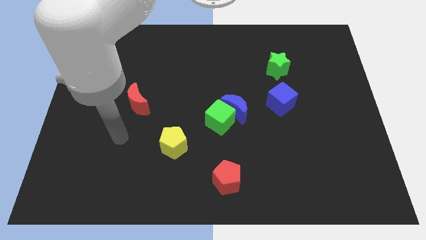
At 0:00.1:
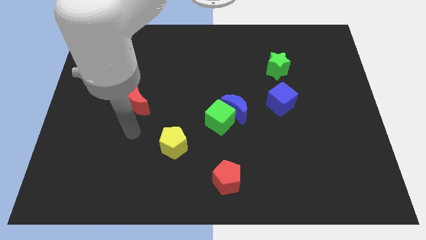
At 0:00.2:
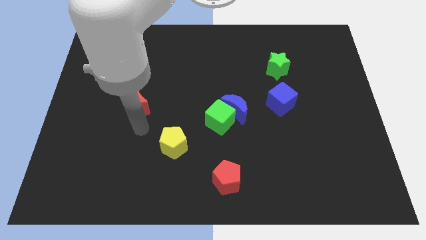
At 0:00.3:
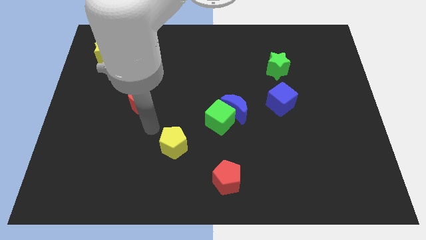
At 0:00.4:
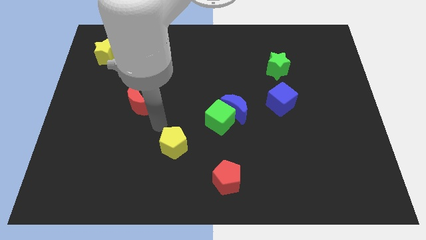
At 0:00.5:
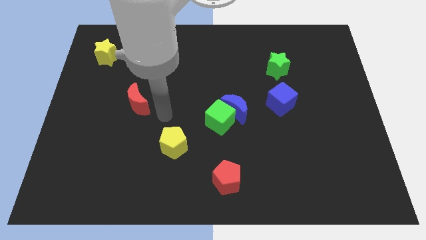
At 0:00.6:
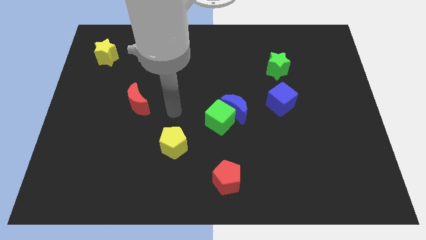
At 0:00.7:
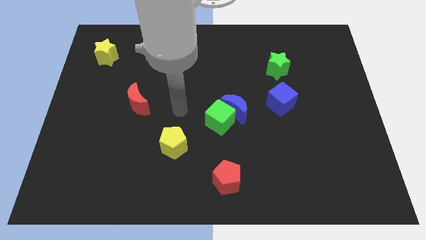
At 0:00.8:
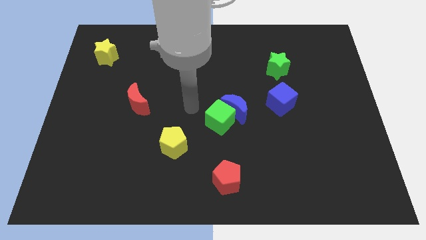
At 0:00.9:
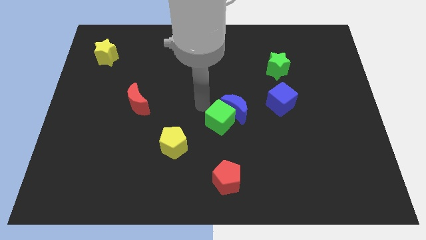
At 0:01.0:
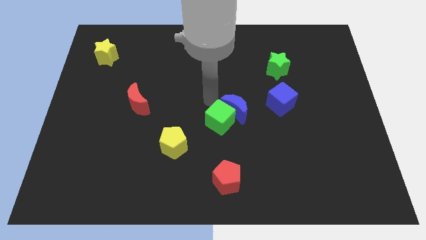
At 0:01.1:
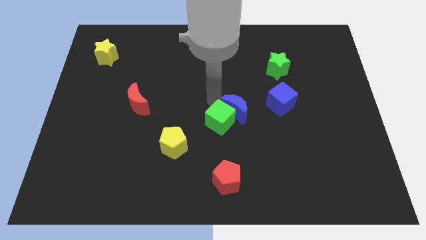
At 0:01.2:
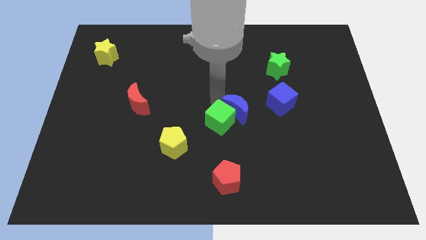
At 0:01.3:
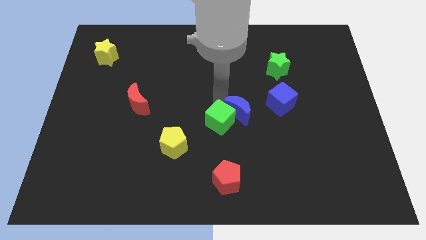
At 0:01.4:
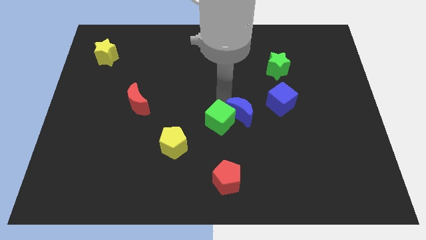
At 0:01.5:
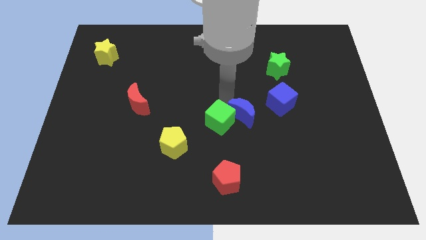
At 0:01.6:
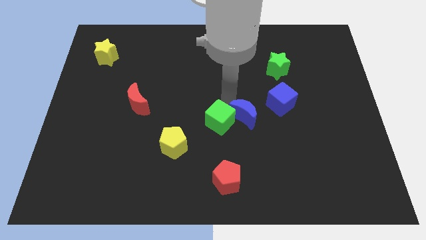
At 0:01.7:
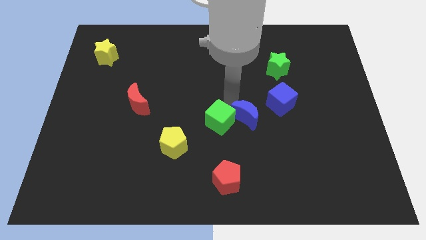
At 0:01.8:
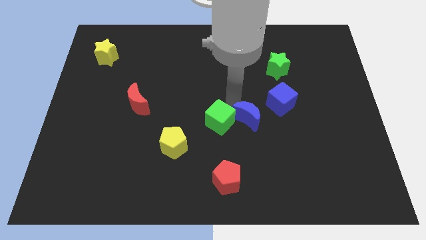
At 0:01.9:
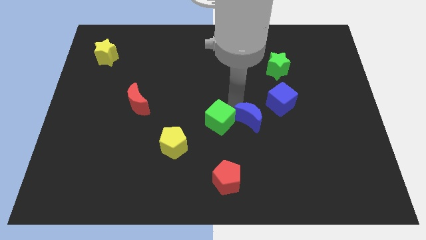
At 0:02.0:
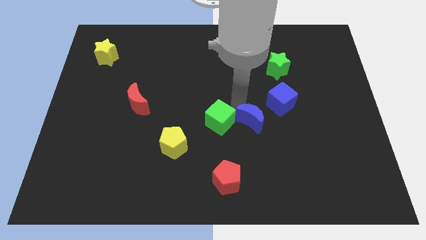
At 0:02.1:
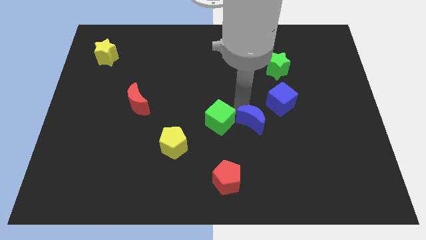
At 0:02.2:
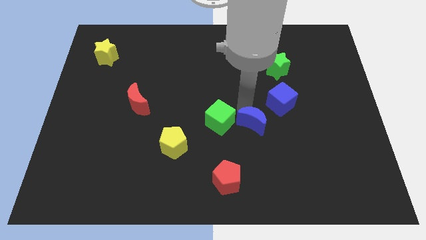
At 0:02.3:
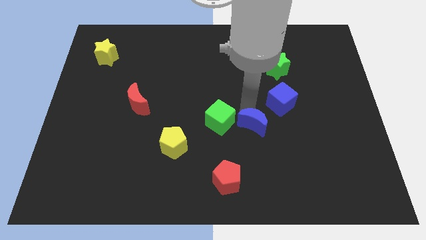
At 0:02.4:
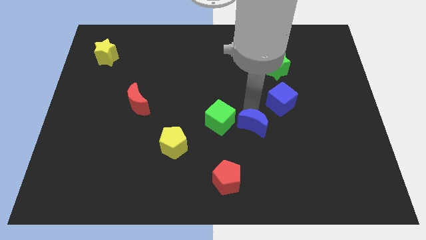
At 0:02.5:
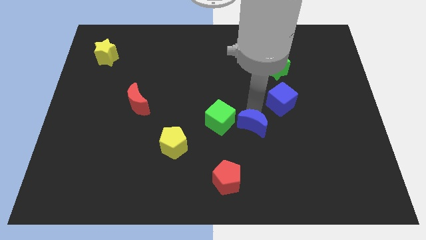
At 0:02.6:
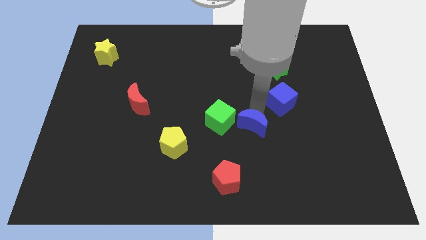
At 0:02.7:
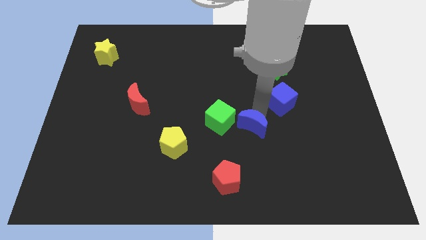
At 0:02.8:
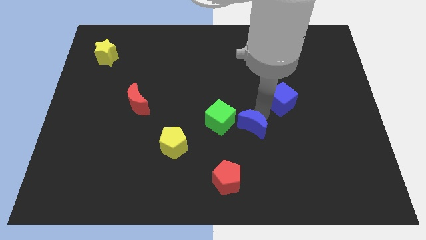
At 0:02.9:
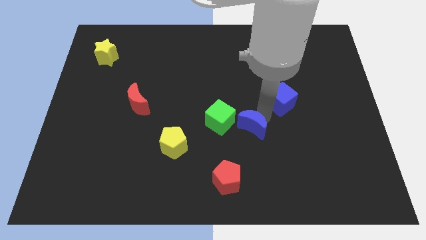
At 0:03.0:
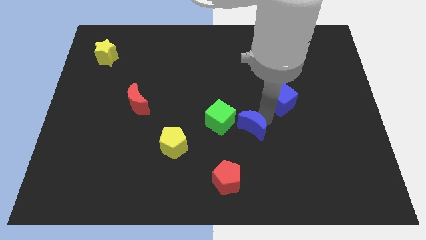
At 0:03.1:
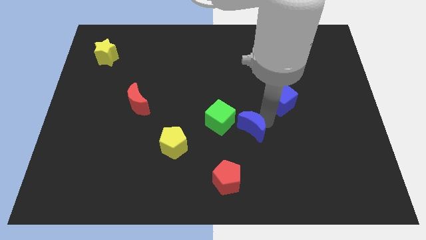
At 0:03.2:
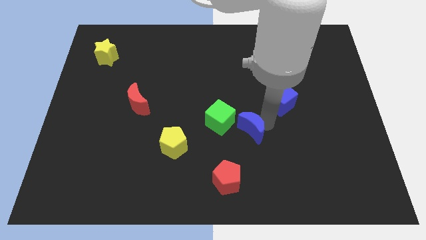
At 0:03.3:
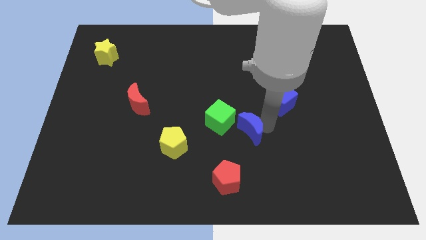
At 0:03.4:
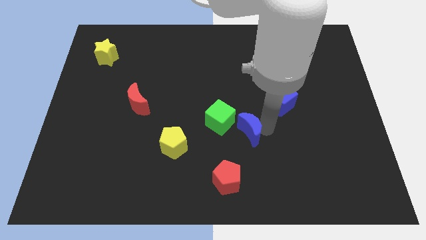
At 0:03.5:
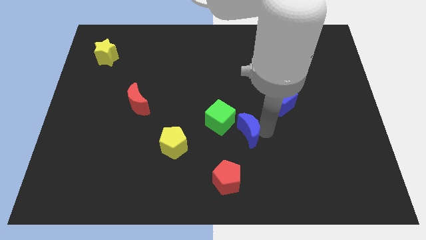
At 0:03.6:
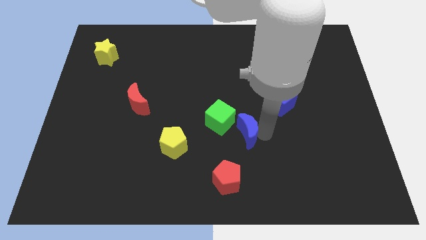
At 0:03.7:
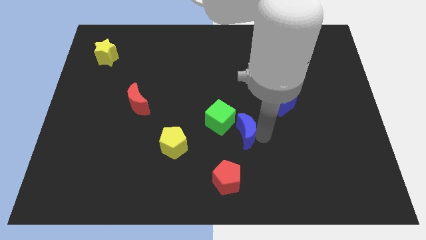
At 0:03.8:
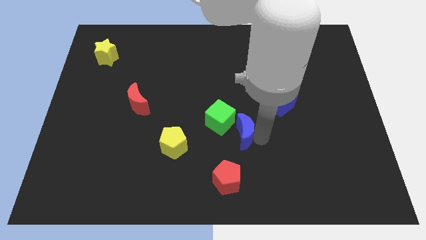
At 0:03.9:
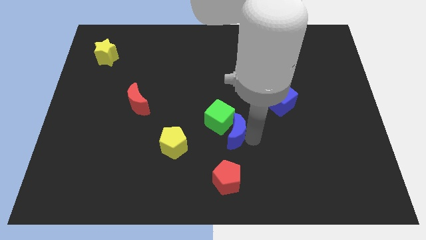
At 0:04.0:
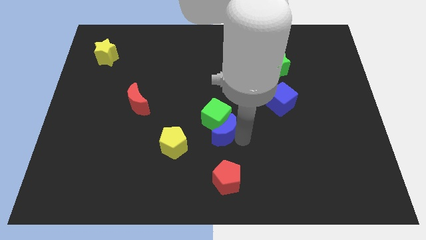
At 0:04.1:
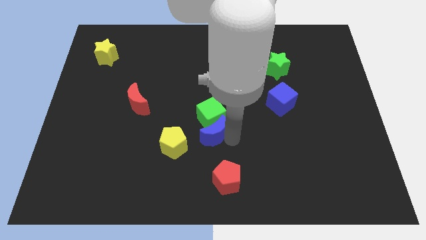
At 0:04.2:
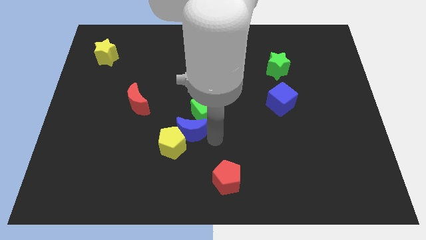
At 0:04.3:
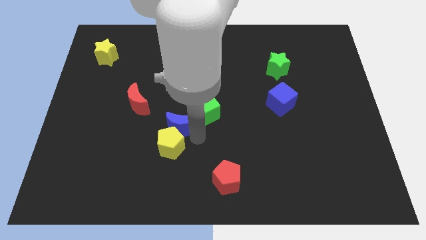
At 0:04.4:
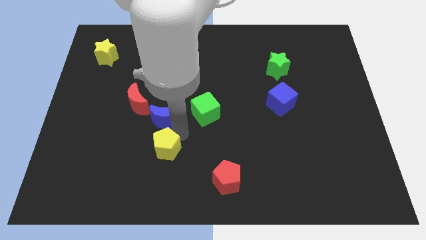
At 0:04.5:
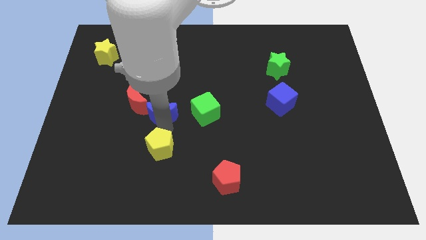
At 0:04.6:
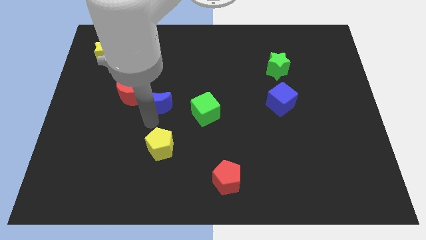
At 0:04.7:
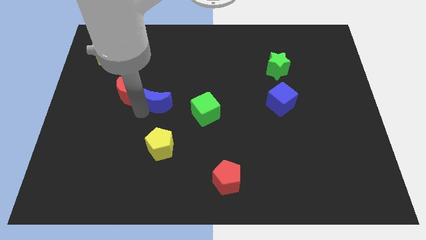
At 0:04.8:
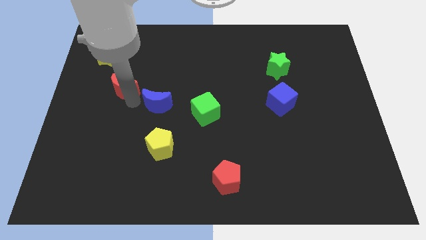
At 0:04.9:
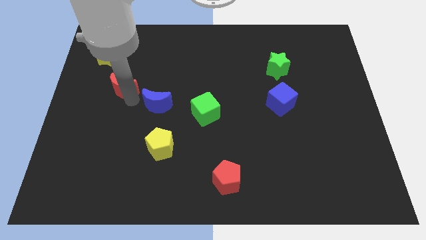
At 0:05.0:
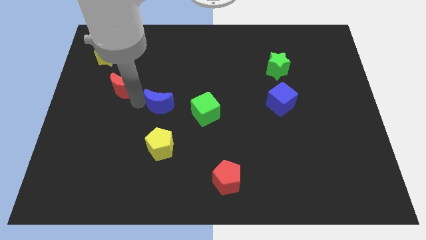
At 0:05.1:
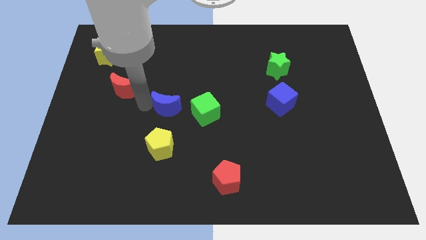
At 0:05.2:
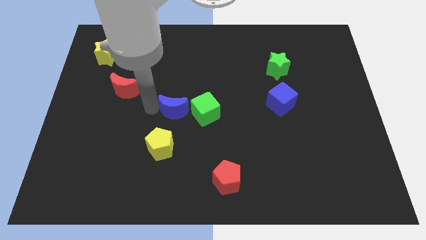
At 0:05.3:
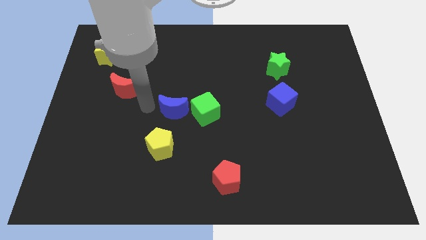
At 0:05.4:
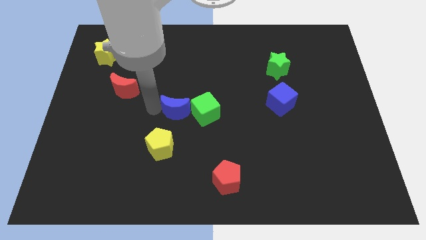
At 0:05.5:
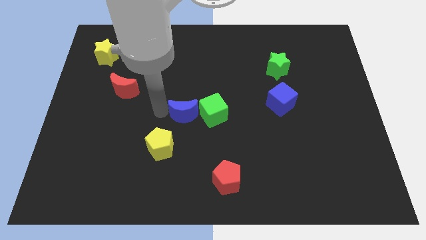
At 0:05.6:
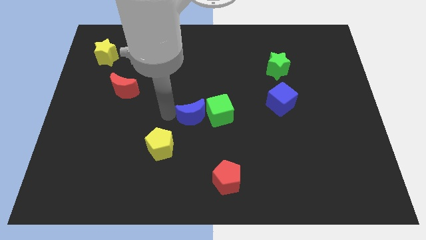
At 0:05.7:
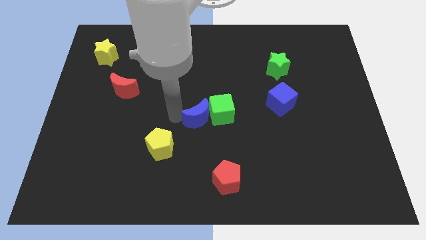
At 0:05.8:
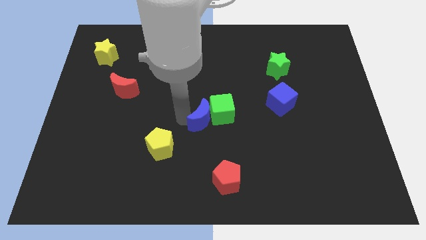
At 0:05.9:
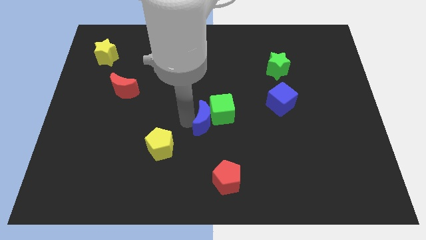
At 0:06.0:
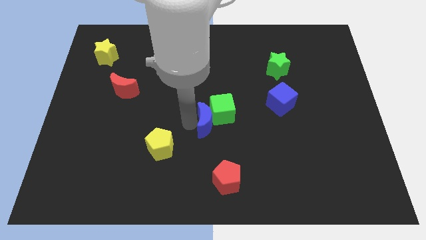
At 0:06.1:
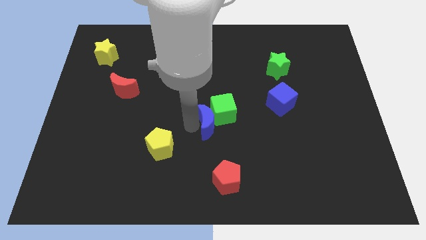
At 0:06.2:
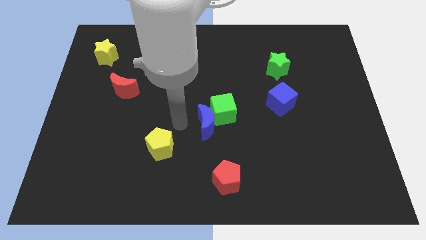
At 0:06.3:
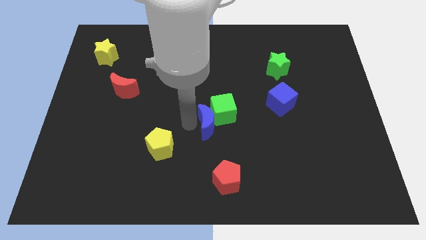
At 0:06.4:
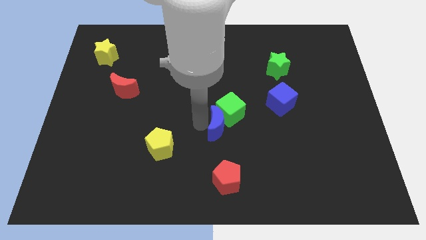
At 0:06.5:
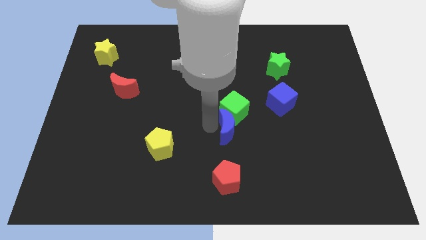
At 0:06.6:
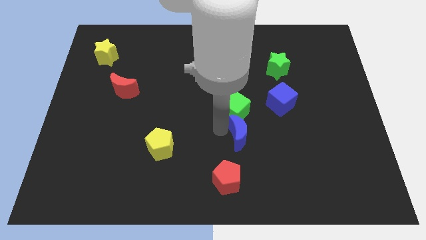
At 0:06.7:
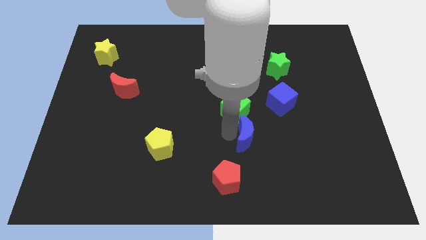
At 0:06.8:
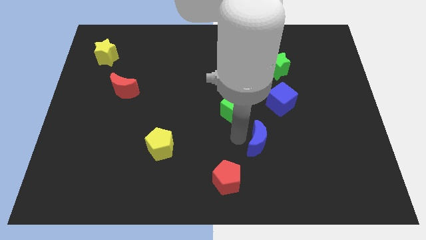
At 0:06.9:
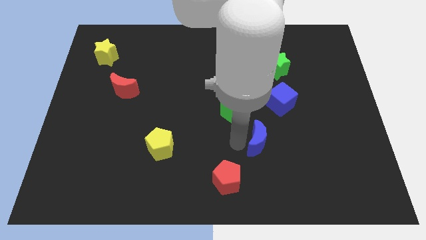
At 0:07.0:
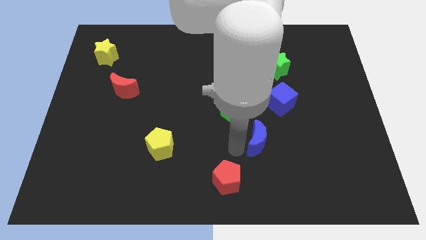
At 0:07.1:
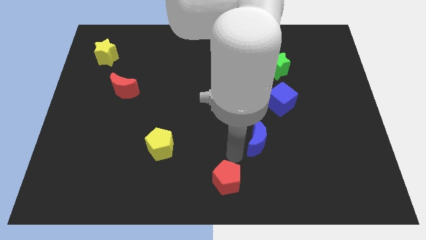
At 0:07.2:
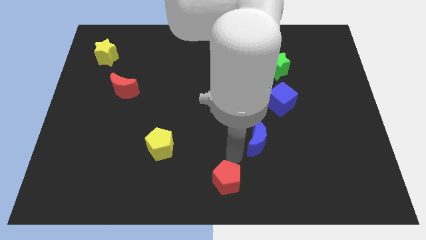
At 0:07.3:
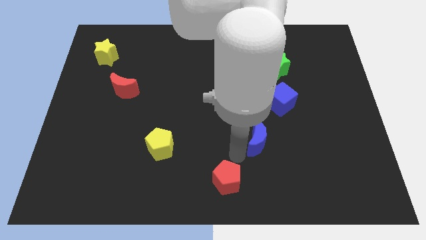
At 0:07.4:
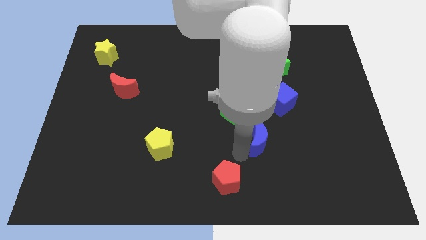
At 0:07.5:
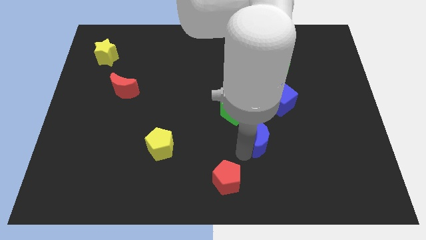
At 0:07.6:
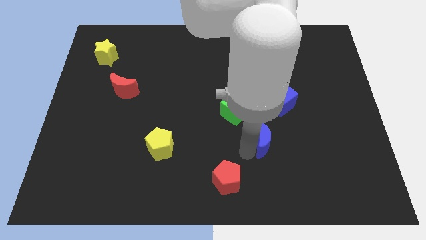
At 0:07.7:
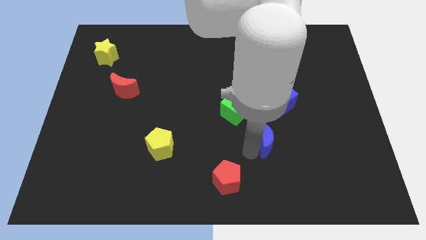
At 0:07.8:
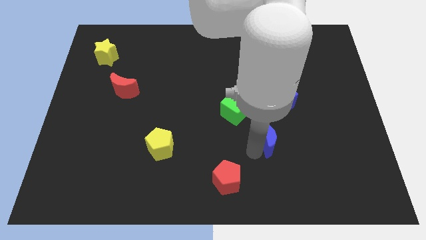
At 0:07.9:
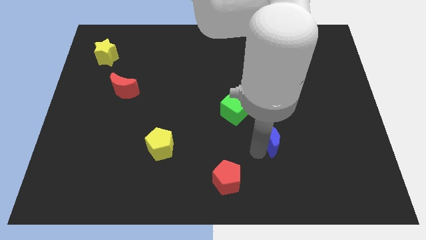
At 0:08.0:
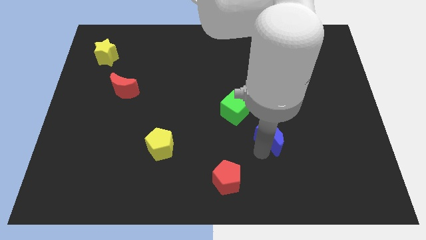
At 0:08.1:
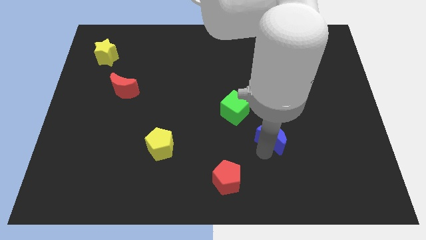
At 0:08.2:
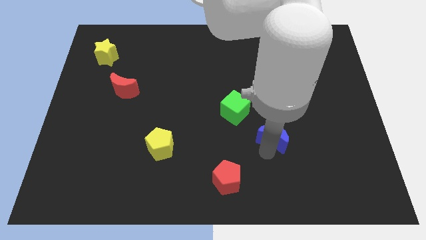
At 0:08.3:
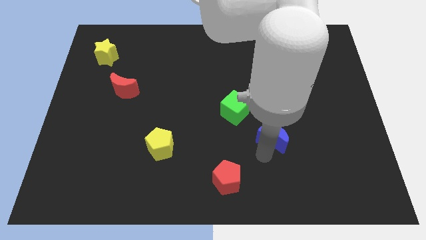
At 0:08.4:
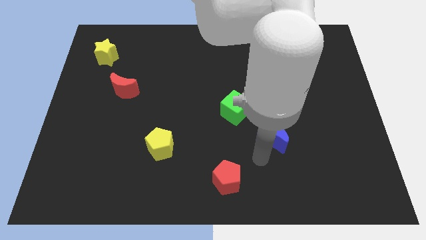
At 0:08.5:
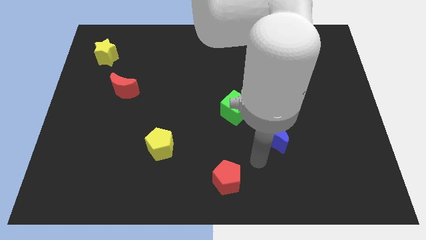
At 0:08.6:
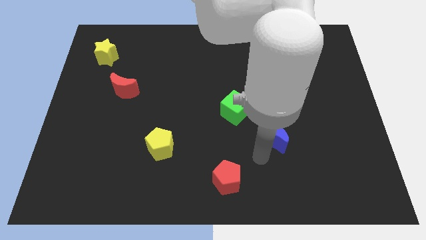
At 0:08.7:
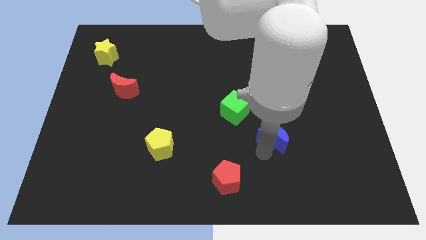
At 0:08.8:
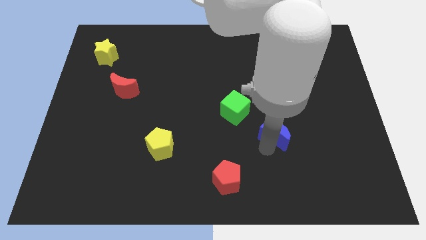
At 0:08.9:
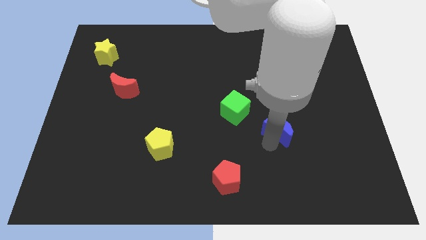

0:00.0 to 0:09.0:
slightly push the blue moon to the right
